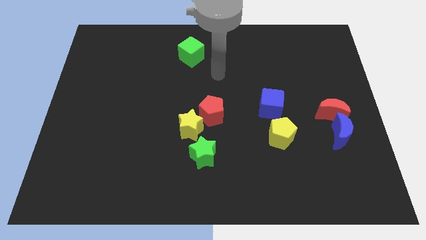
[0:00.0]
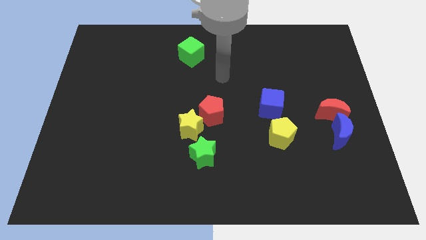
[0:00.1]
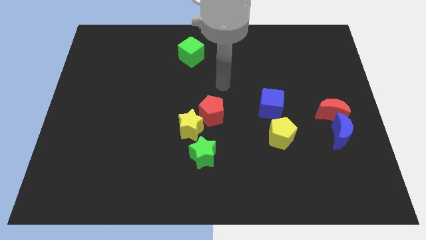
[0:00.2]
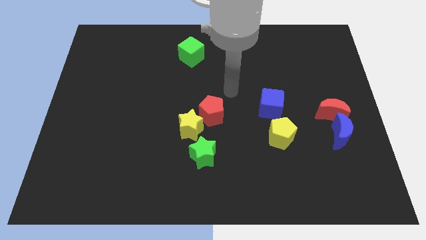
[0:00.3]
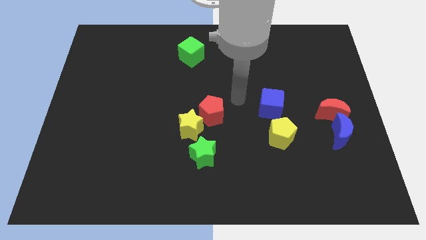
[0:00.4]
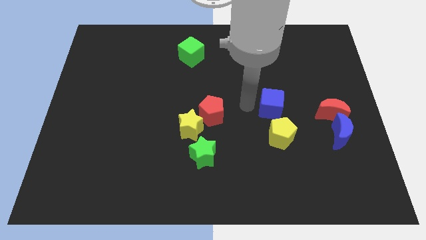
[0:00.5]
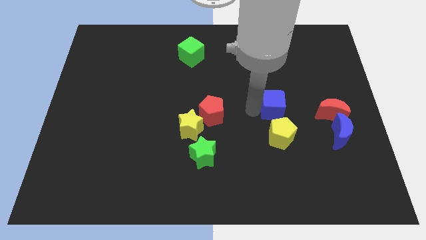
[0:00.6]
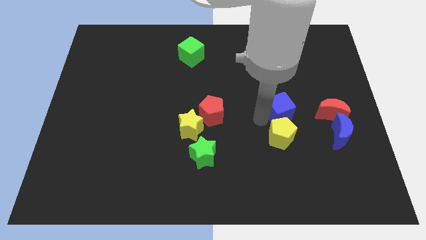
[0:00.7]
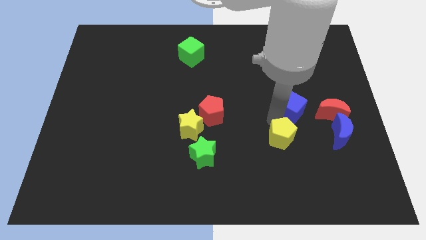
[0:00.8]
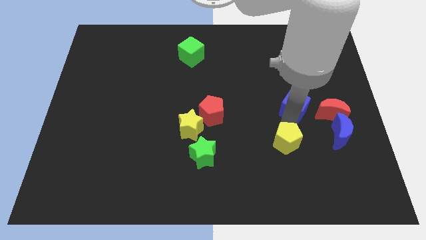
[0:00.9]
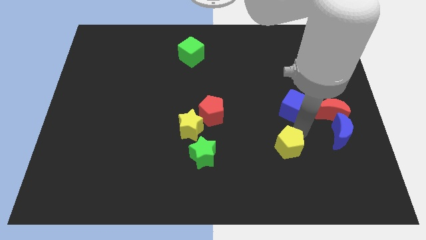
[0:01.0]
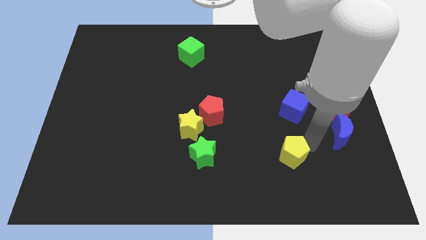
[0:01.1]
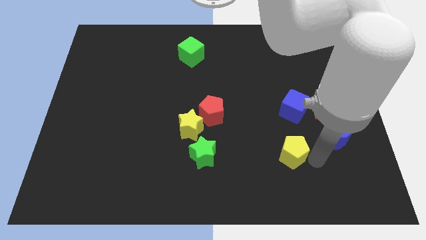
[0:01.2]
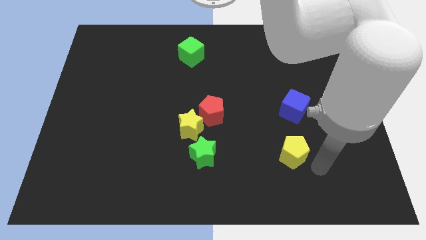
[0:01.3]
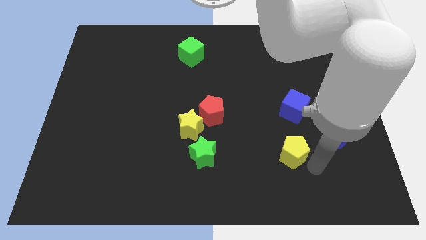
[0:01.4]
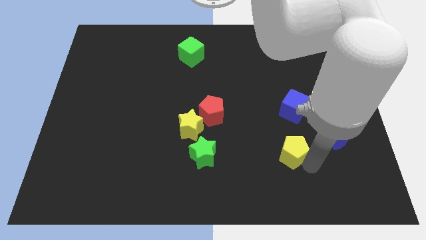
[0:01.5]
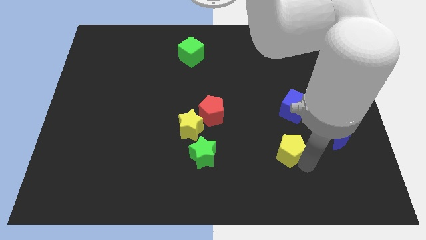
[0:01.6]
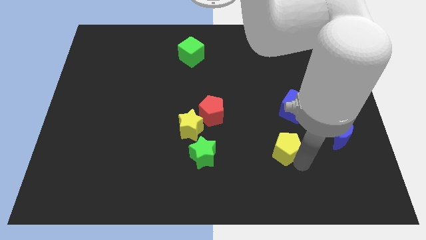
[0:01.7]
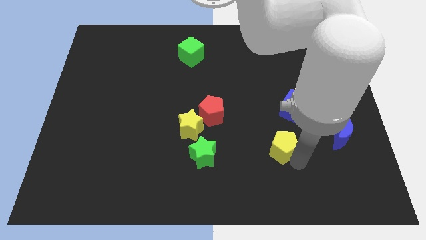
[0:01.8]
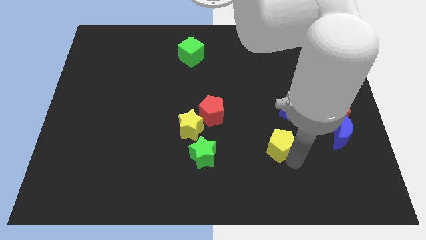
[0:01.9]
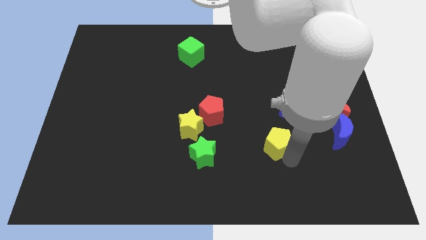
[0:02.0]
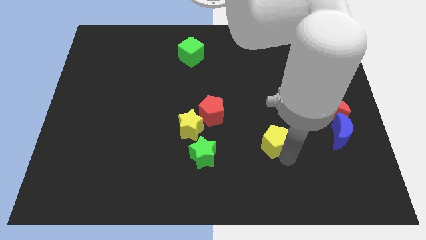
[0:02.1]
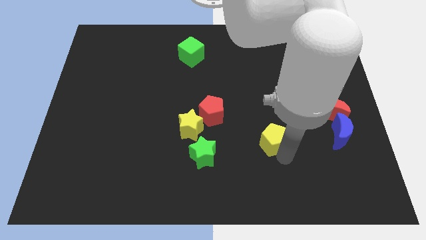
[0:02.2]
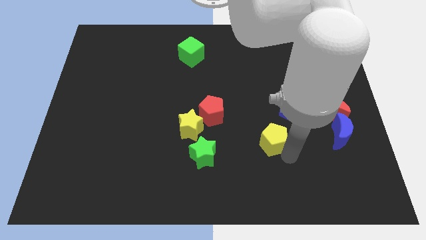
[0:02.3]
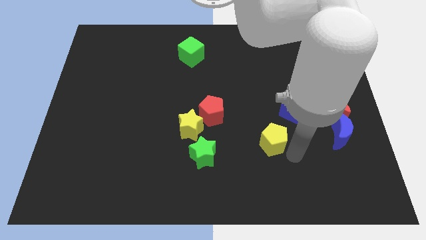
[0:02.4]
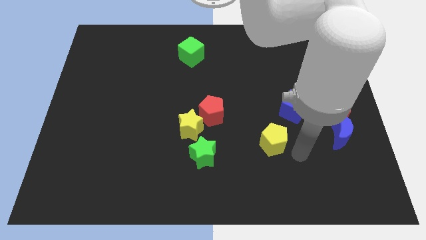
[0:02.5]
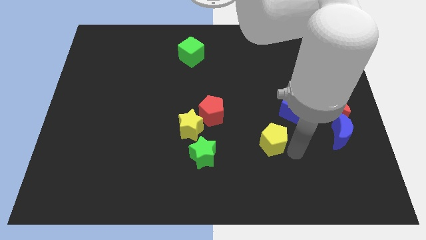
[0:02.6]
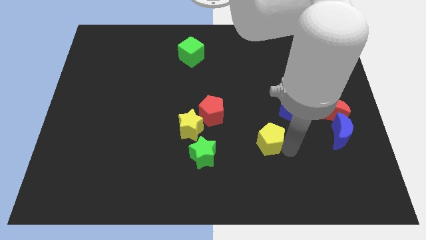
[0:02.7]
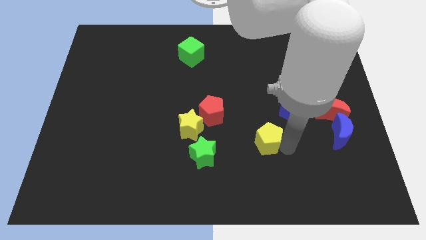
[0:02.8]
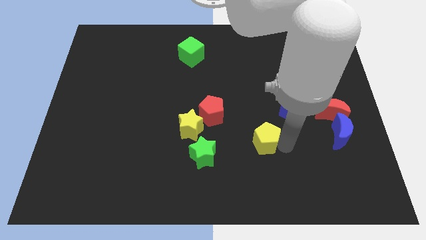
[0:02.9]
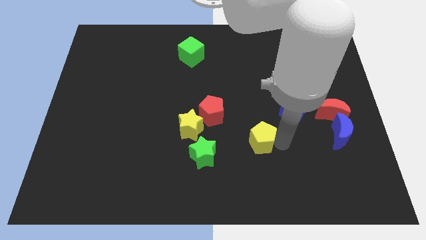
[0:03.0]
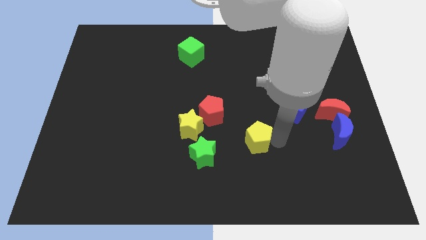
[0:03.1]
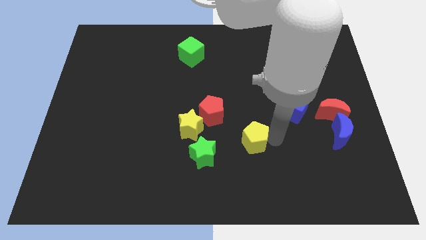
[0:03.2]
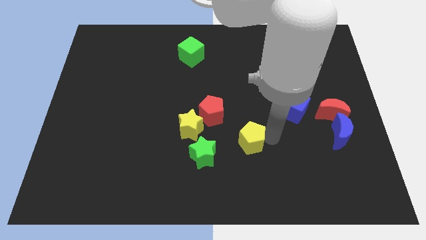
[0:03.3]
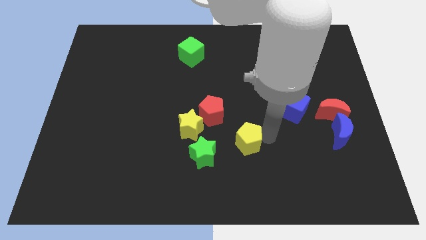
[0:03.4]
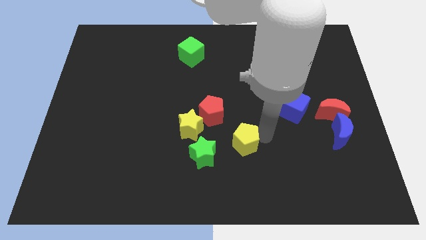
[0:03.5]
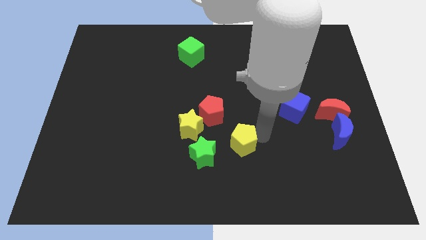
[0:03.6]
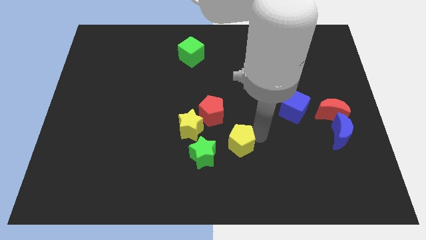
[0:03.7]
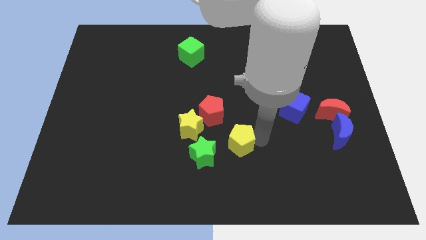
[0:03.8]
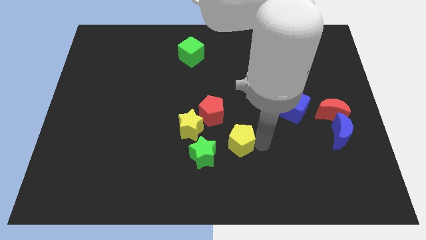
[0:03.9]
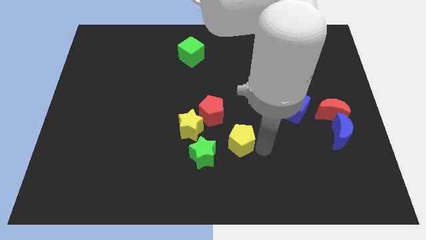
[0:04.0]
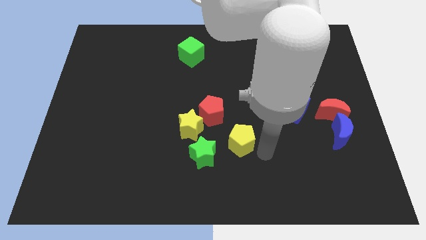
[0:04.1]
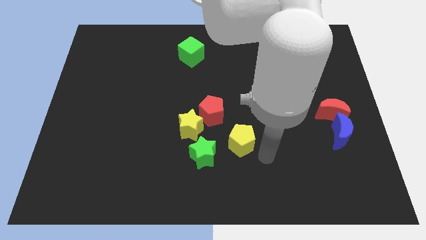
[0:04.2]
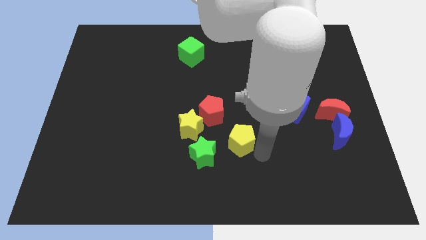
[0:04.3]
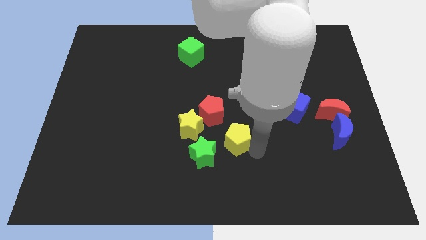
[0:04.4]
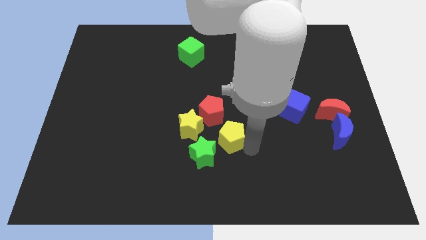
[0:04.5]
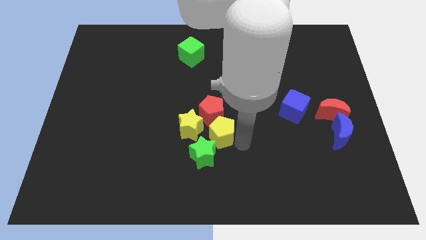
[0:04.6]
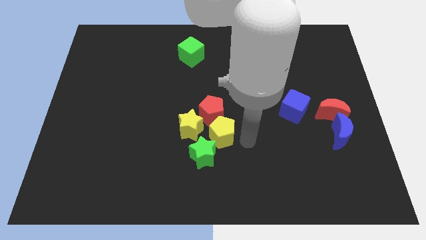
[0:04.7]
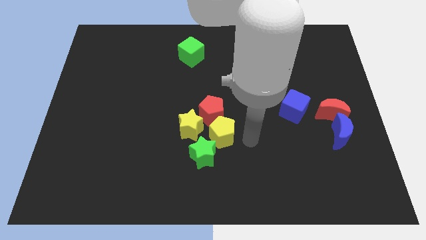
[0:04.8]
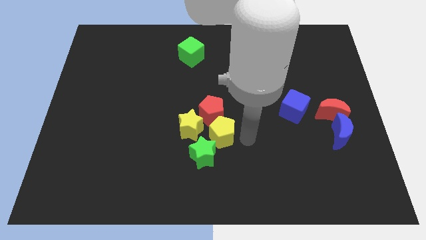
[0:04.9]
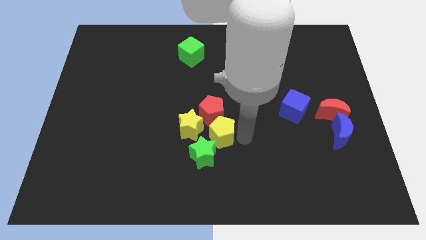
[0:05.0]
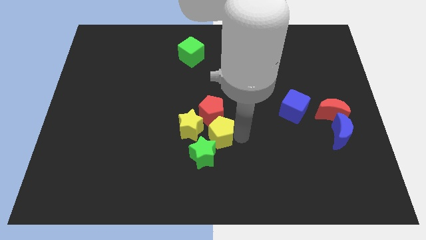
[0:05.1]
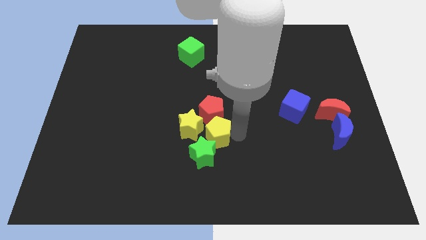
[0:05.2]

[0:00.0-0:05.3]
slide the yellow pentagon next to the yellow star

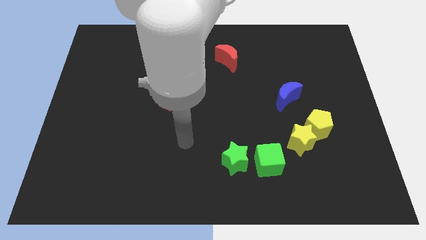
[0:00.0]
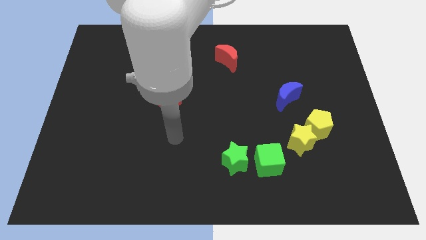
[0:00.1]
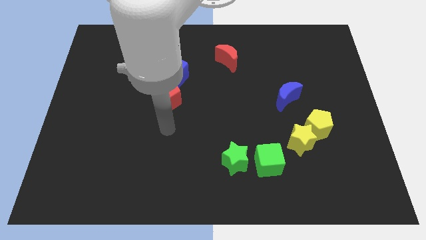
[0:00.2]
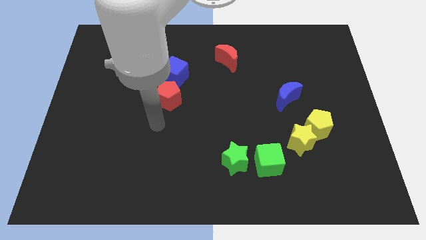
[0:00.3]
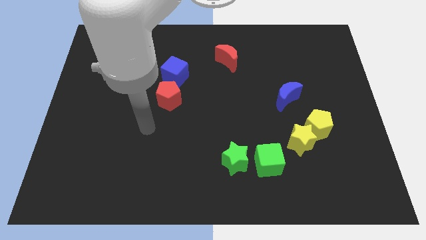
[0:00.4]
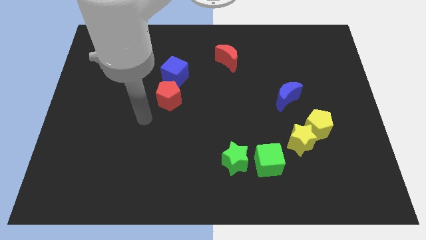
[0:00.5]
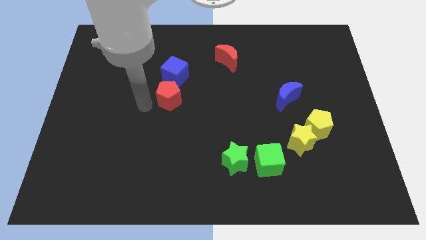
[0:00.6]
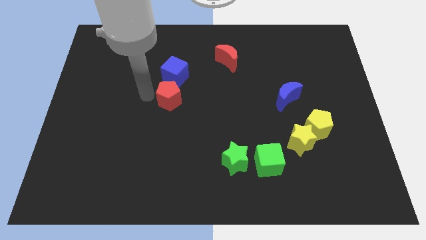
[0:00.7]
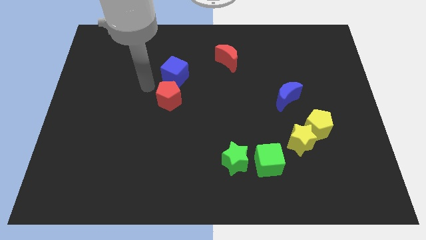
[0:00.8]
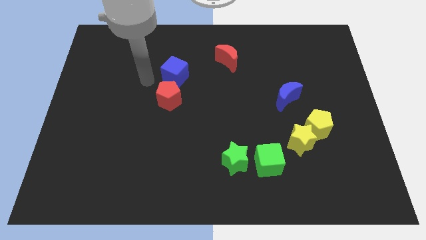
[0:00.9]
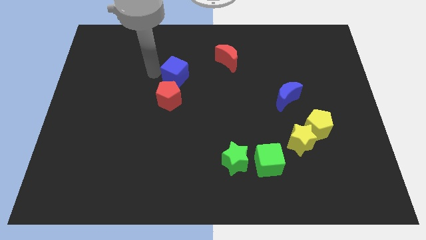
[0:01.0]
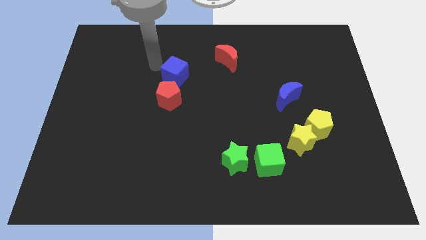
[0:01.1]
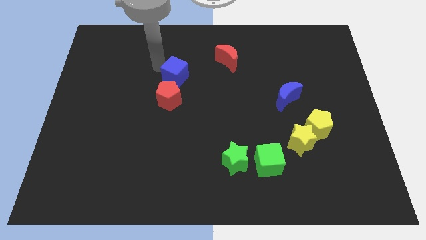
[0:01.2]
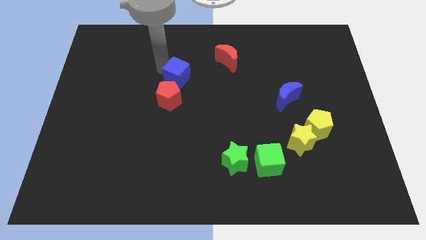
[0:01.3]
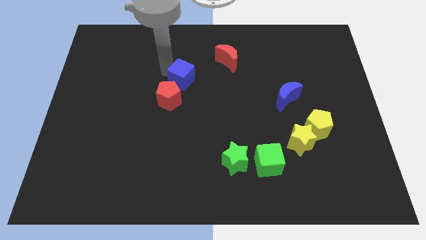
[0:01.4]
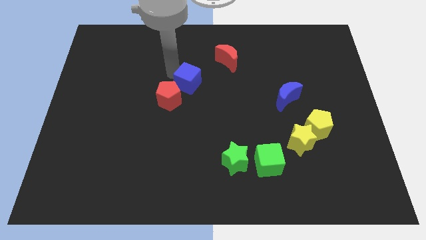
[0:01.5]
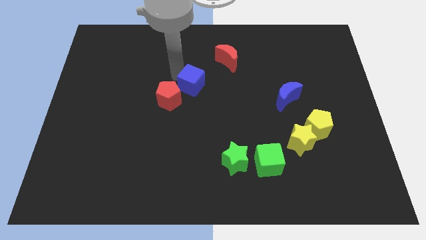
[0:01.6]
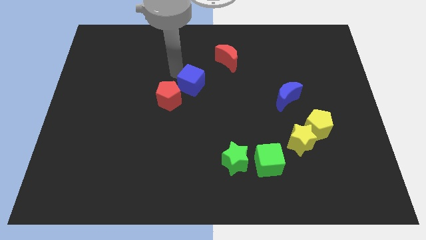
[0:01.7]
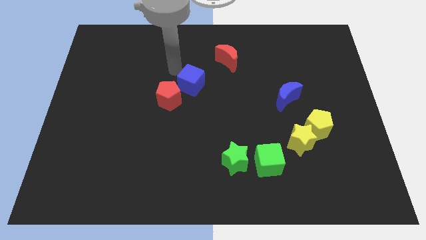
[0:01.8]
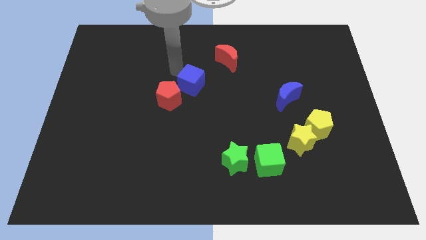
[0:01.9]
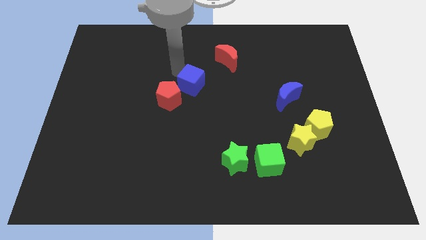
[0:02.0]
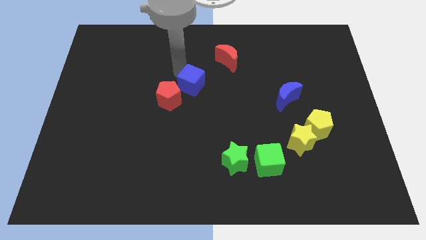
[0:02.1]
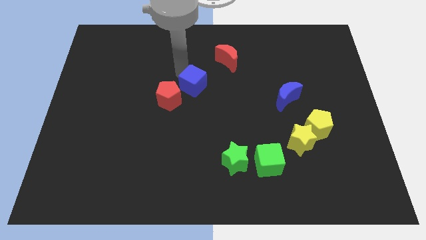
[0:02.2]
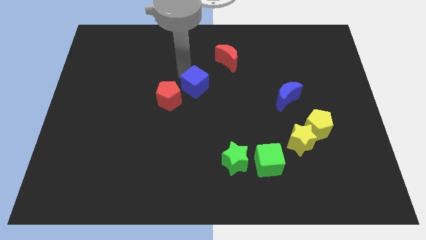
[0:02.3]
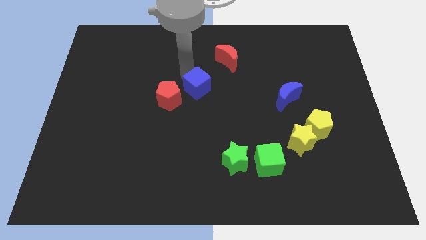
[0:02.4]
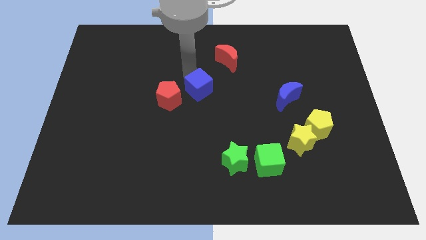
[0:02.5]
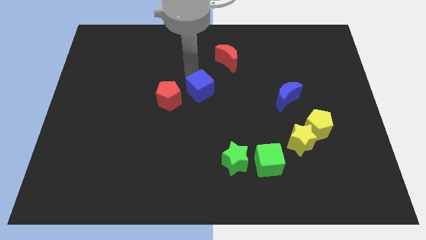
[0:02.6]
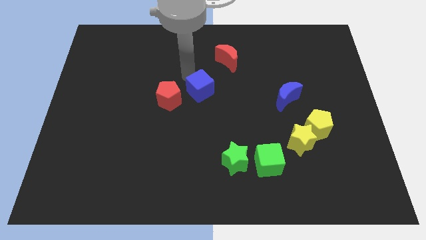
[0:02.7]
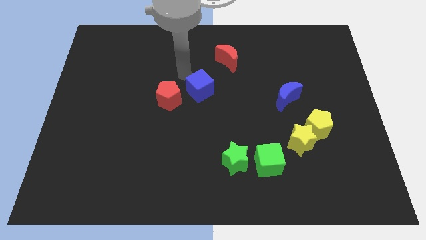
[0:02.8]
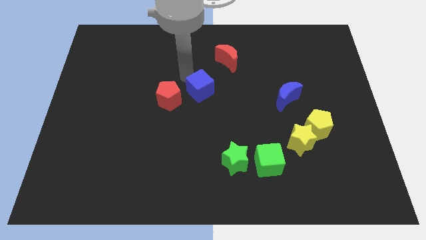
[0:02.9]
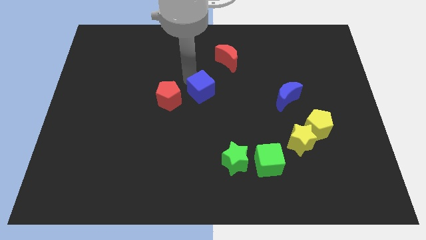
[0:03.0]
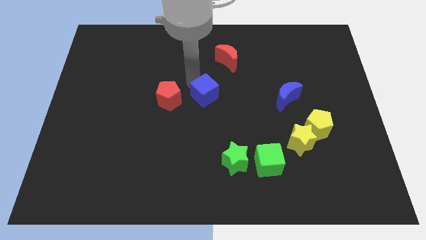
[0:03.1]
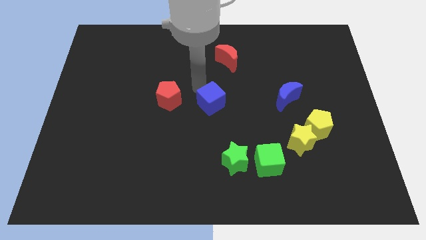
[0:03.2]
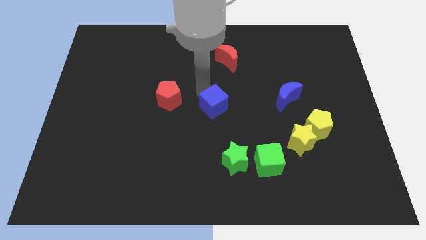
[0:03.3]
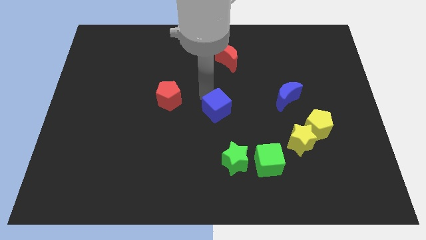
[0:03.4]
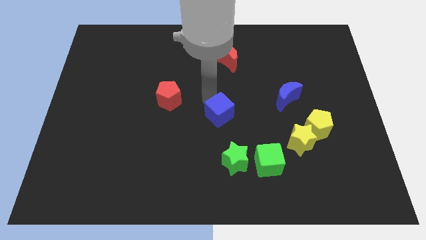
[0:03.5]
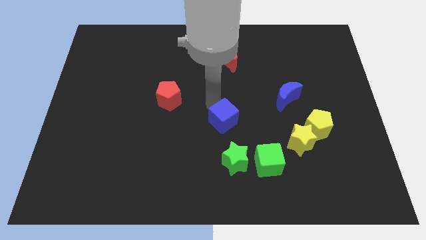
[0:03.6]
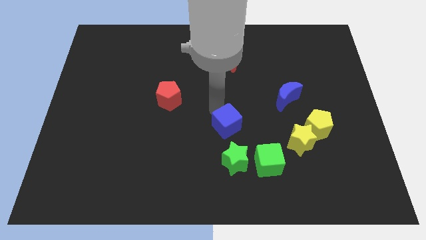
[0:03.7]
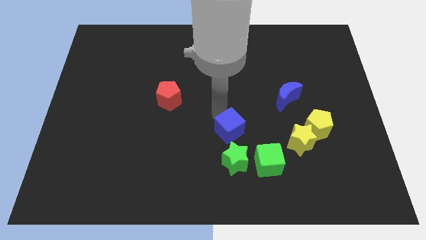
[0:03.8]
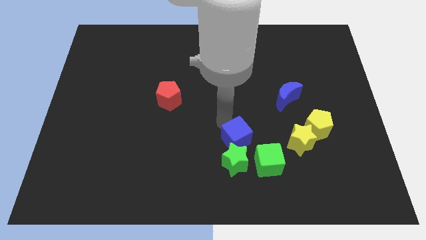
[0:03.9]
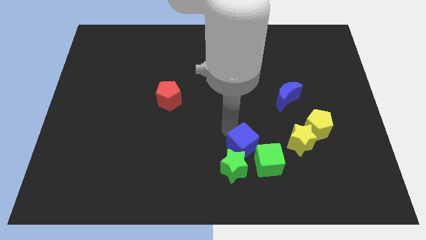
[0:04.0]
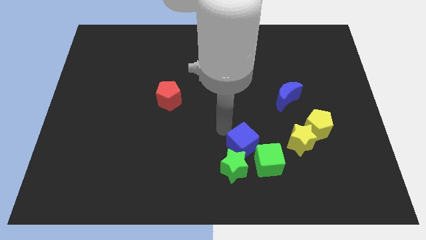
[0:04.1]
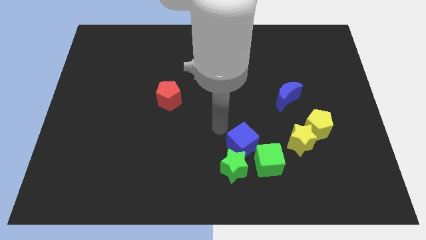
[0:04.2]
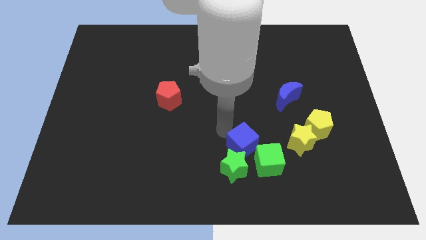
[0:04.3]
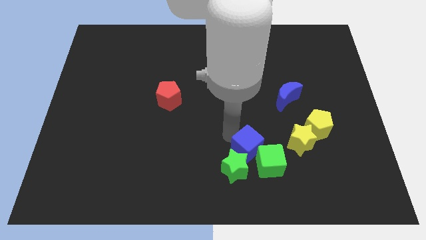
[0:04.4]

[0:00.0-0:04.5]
move the blue cube towards the green cube
